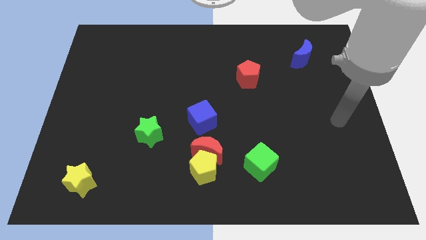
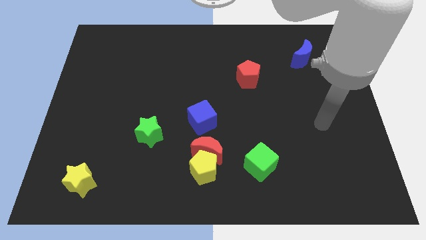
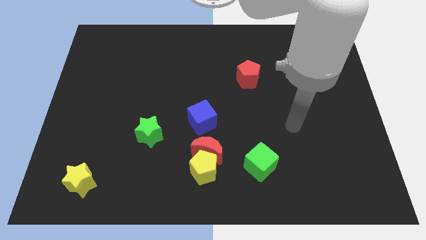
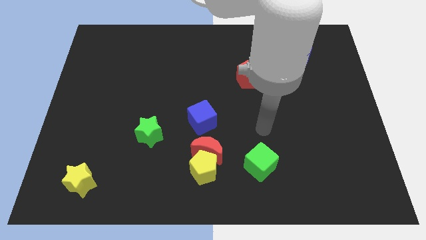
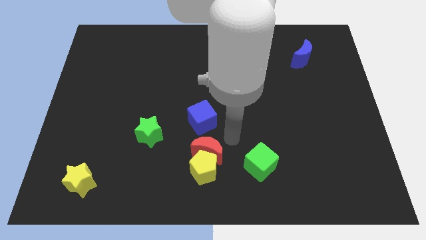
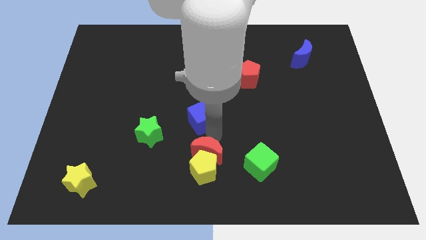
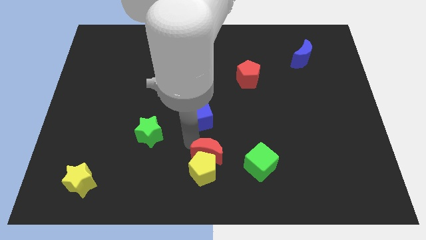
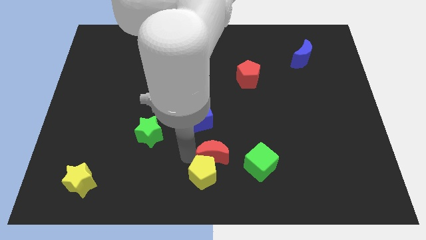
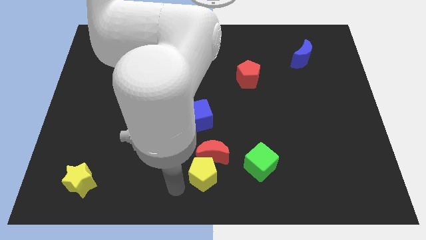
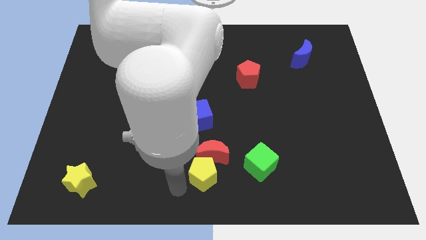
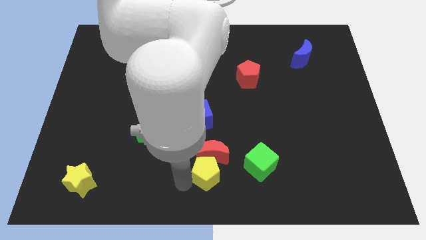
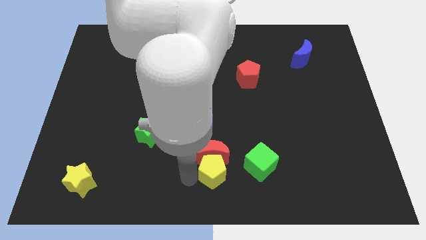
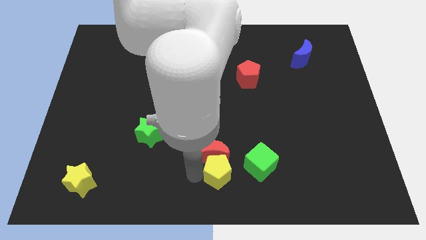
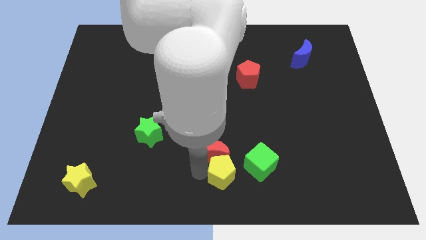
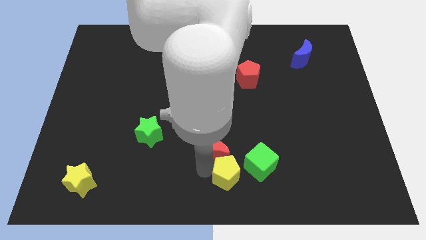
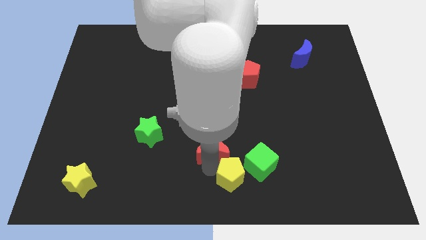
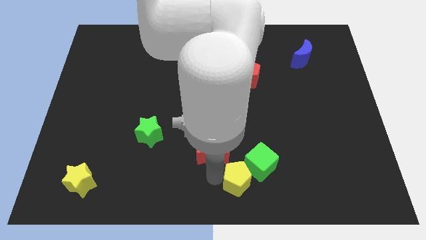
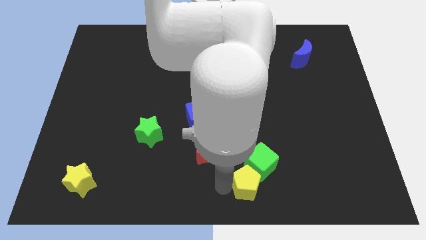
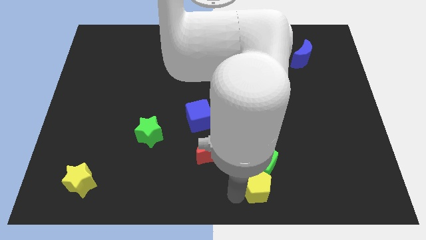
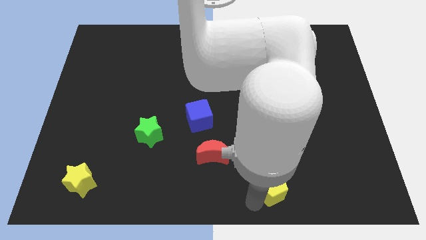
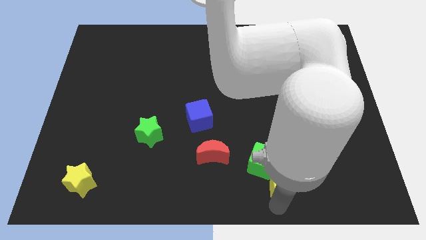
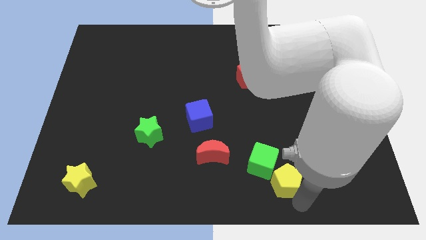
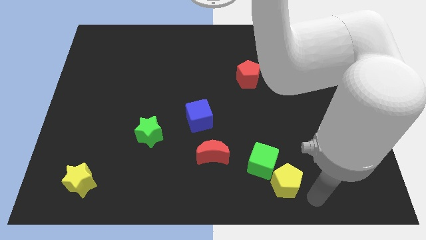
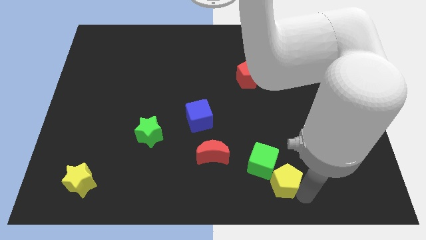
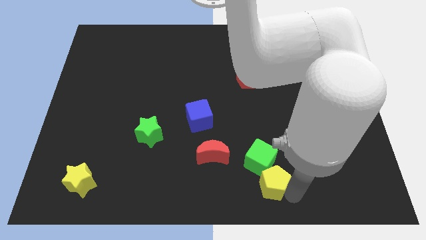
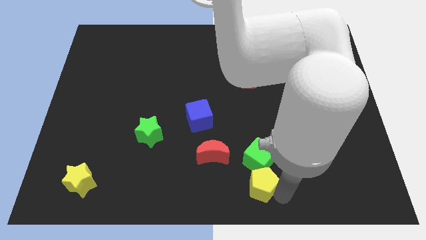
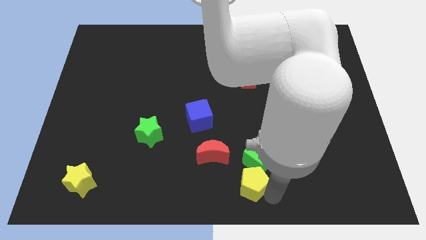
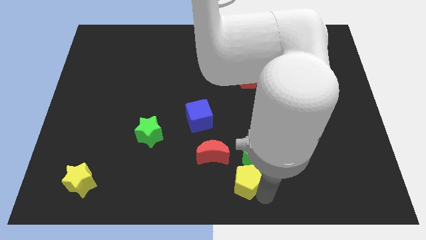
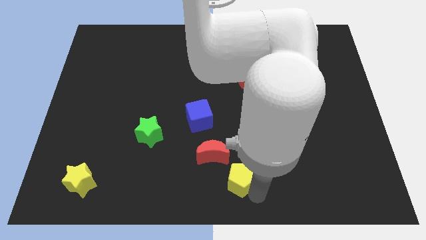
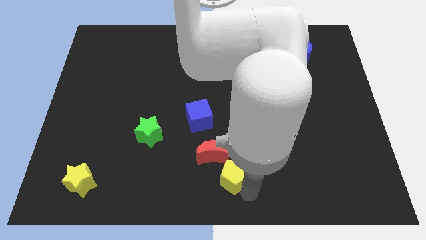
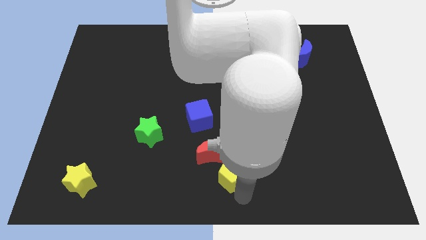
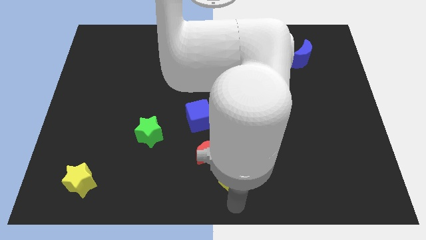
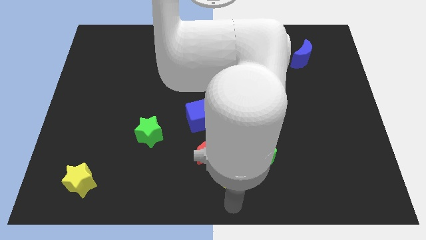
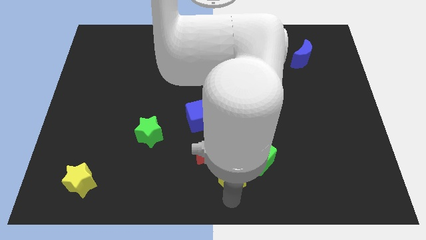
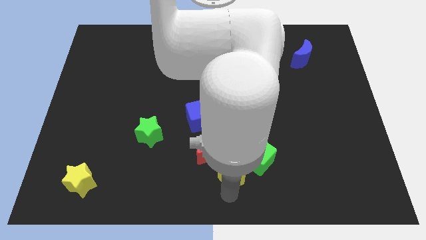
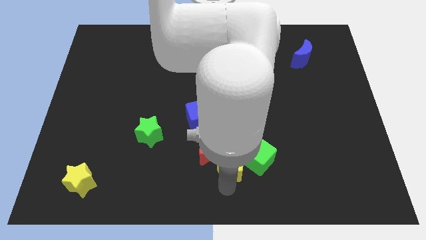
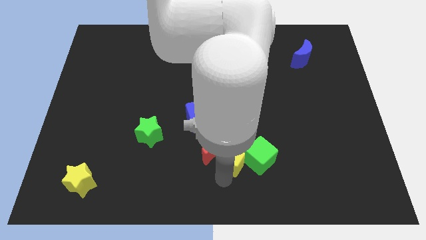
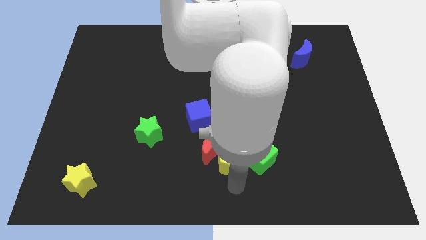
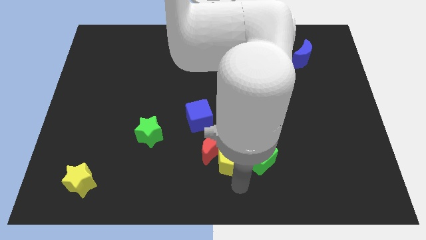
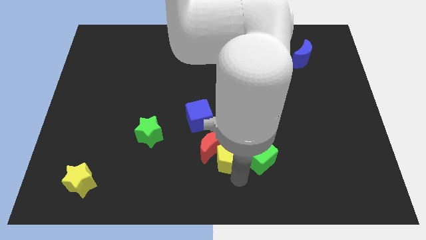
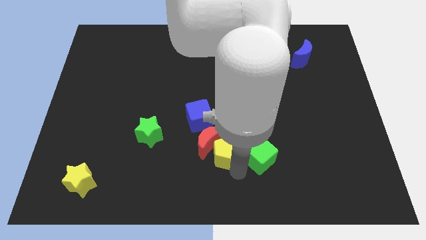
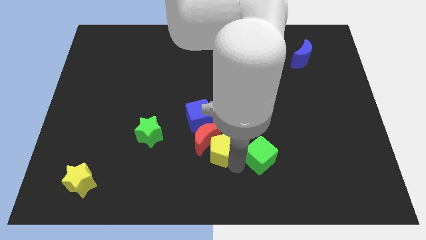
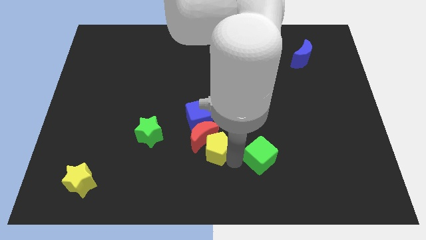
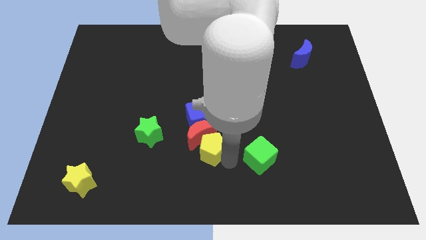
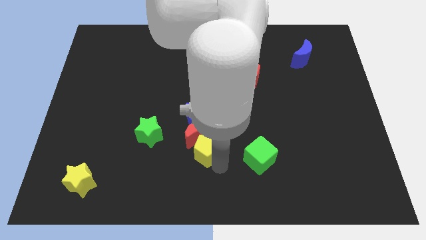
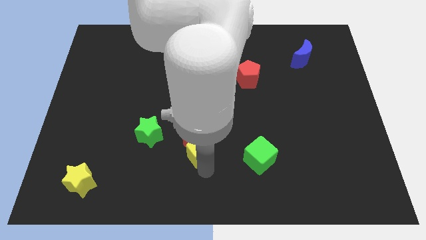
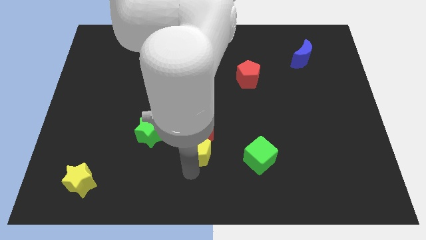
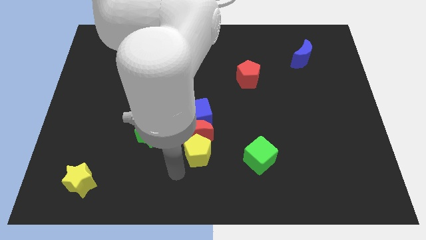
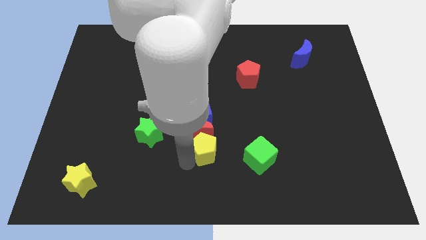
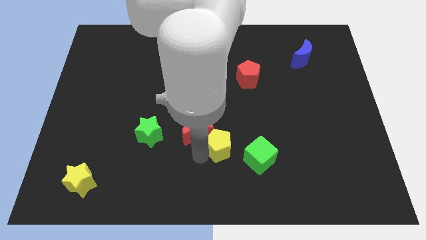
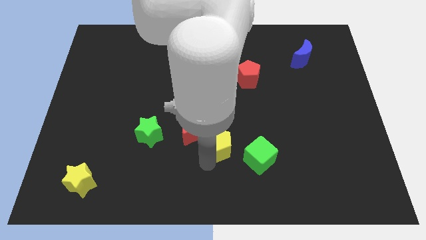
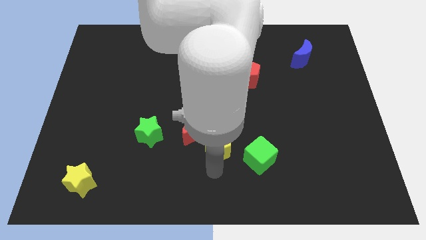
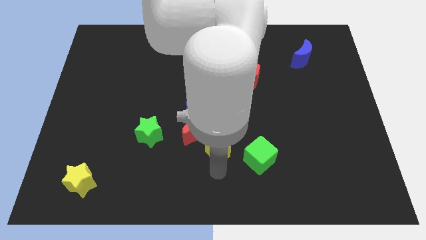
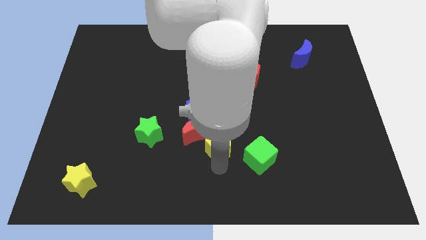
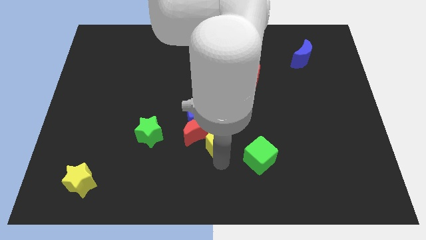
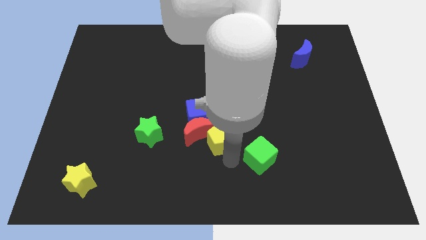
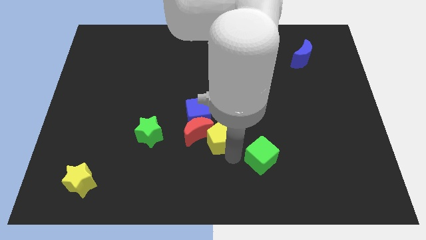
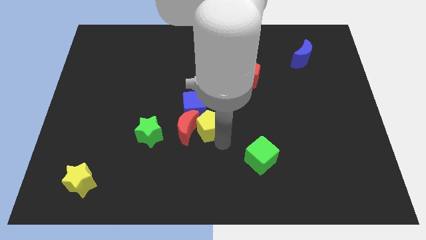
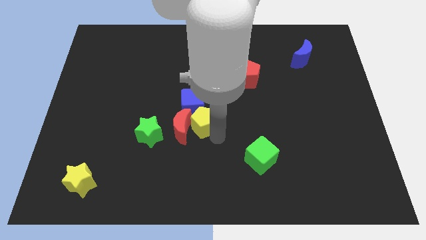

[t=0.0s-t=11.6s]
move the yellow pentagon to the blue cube
